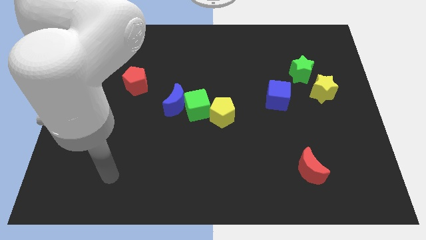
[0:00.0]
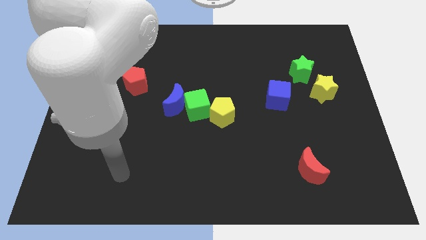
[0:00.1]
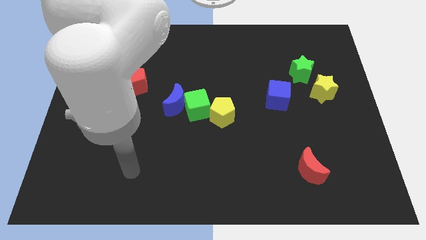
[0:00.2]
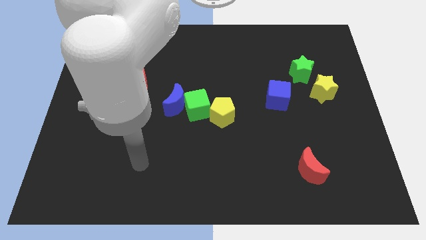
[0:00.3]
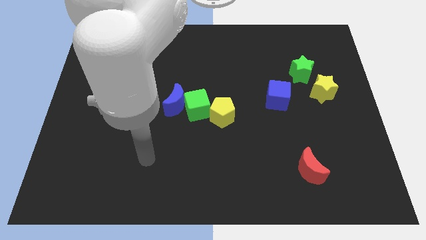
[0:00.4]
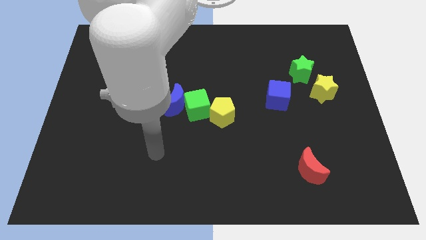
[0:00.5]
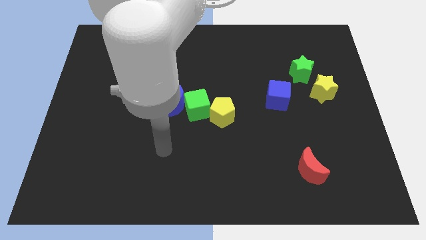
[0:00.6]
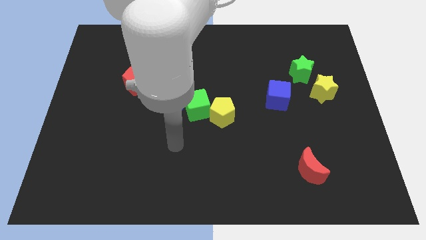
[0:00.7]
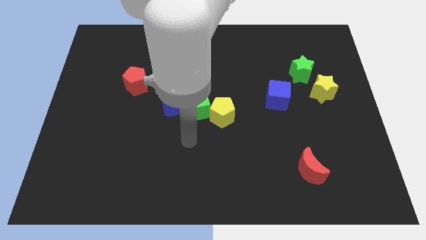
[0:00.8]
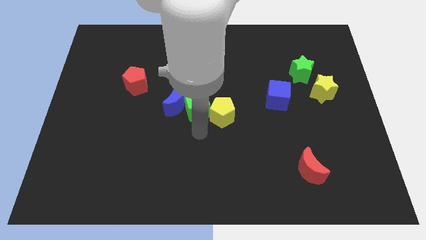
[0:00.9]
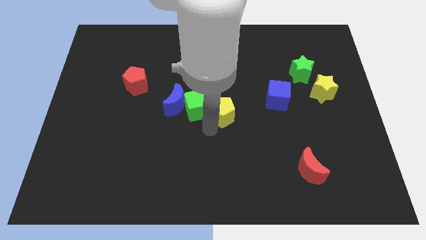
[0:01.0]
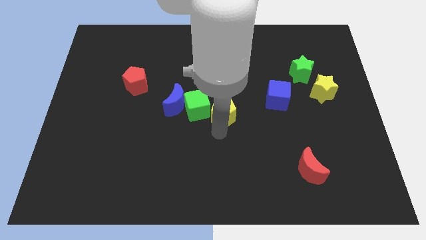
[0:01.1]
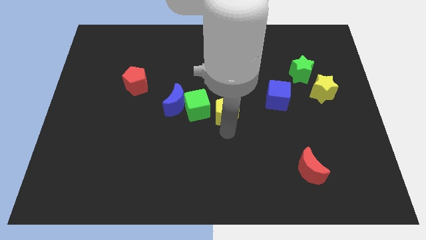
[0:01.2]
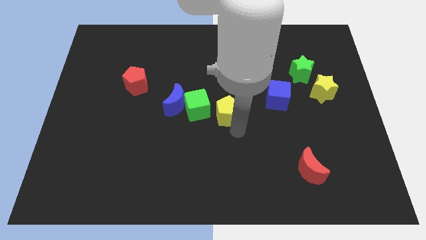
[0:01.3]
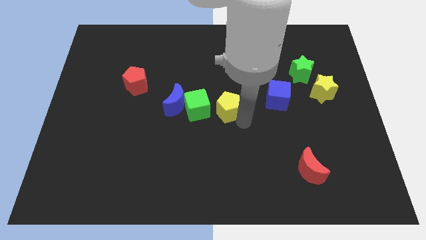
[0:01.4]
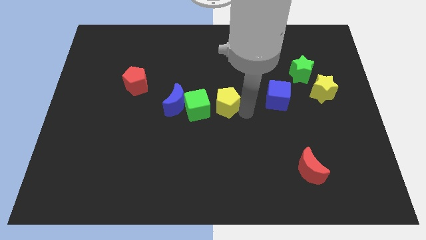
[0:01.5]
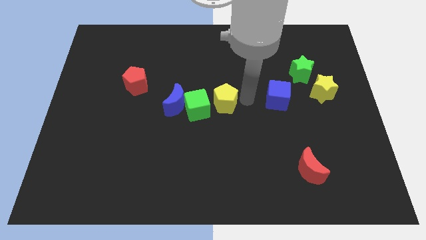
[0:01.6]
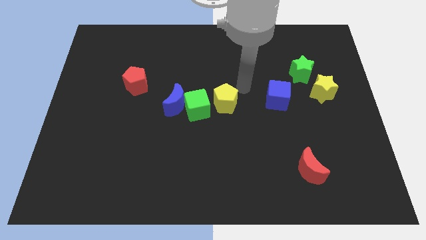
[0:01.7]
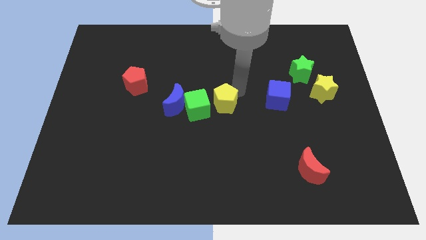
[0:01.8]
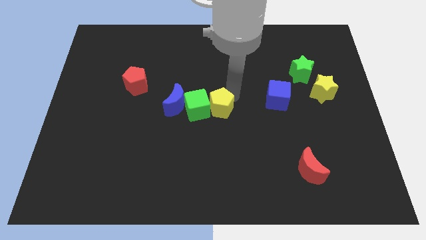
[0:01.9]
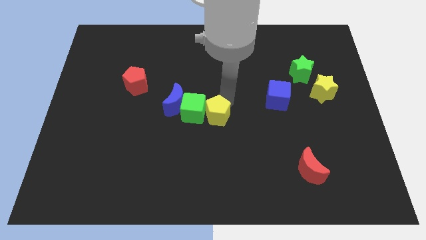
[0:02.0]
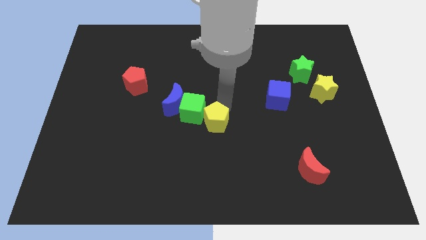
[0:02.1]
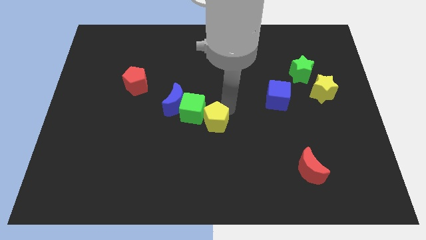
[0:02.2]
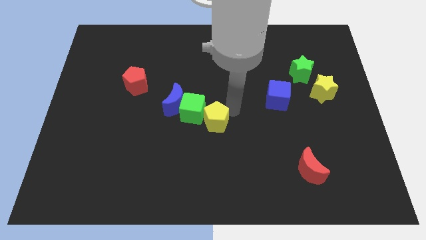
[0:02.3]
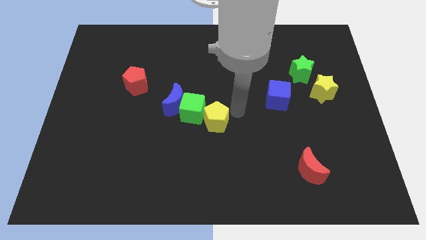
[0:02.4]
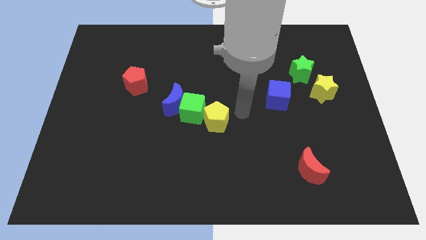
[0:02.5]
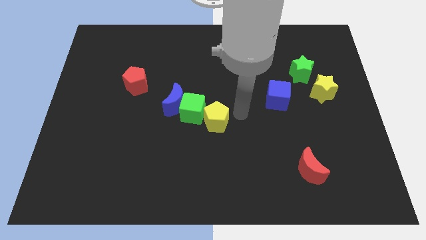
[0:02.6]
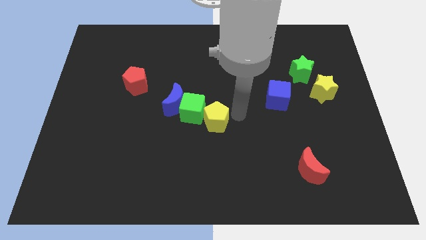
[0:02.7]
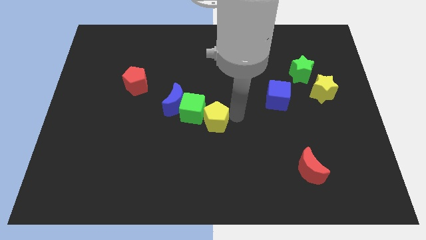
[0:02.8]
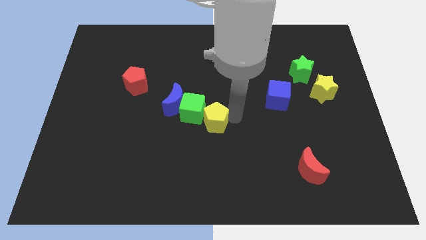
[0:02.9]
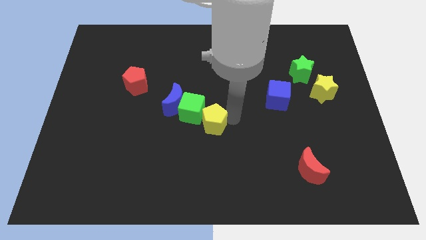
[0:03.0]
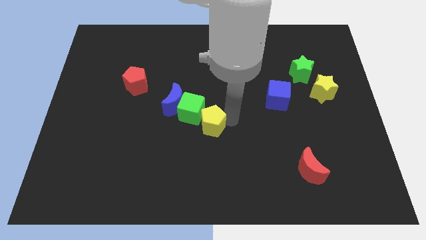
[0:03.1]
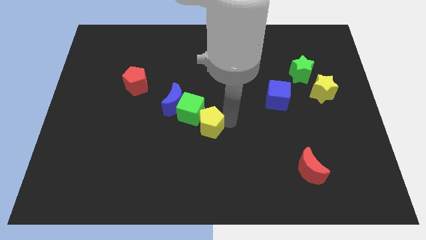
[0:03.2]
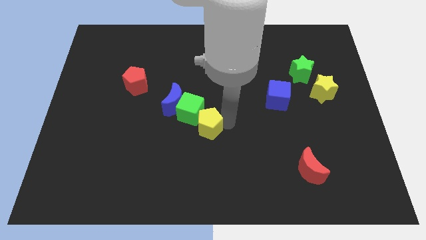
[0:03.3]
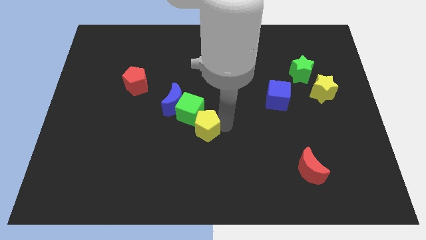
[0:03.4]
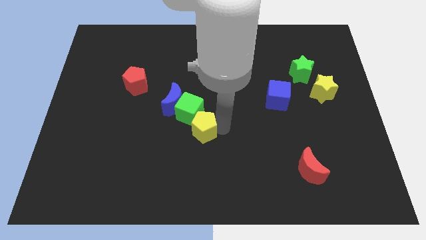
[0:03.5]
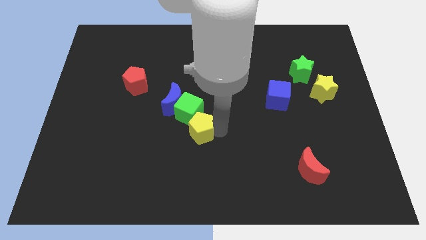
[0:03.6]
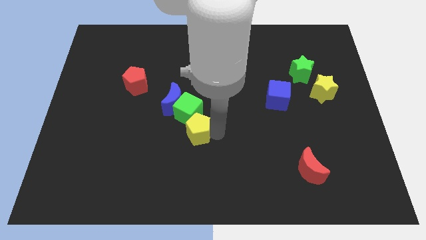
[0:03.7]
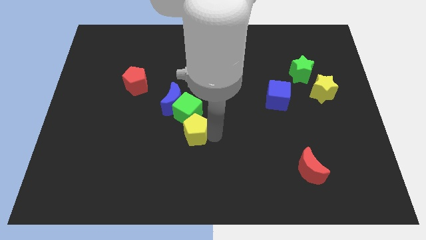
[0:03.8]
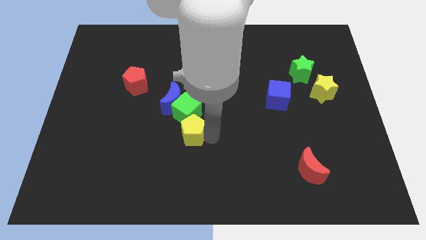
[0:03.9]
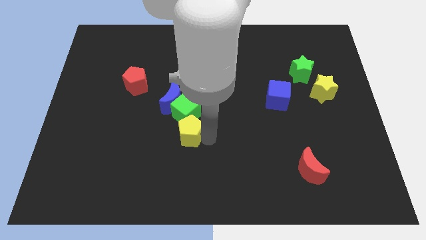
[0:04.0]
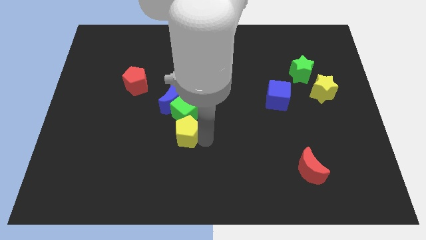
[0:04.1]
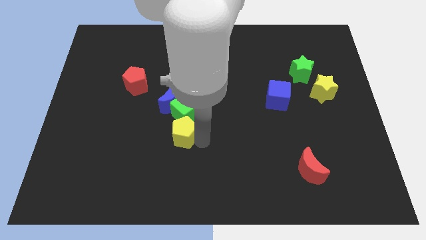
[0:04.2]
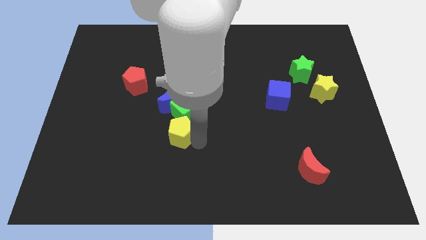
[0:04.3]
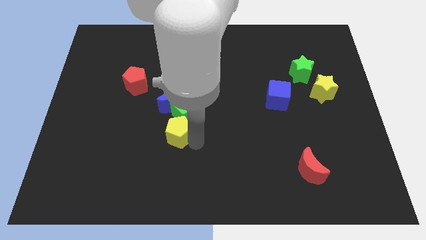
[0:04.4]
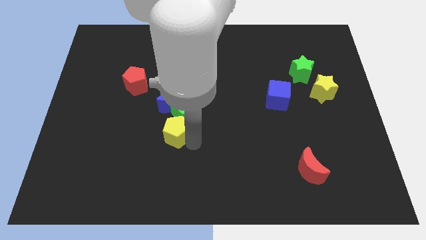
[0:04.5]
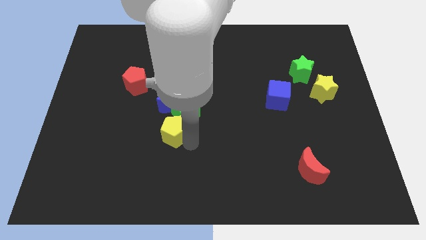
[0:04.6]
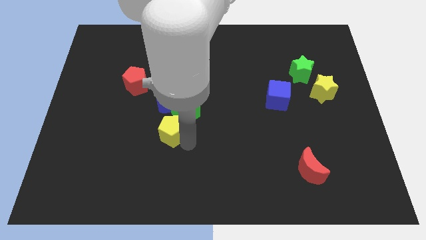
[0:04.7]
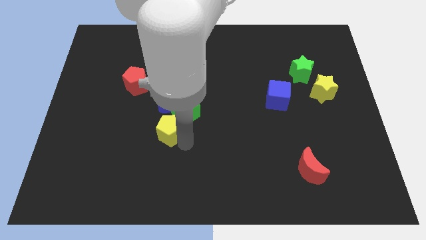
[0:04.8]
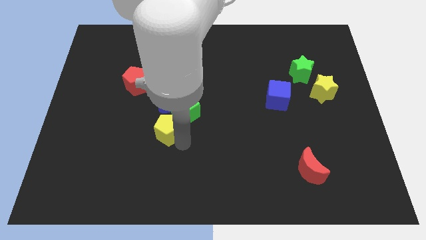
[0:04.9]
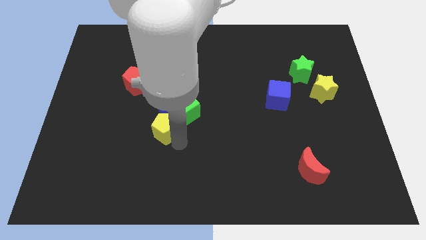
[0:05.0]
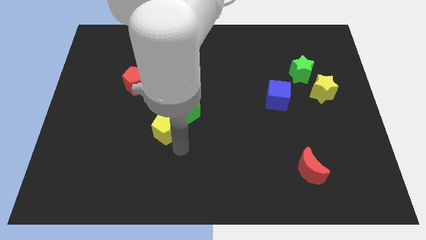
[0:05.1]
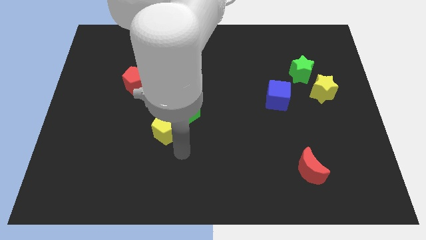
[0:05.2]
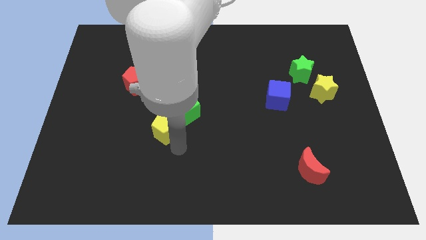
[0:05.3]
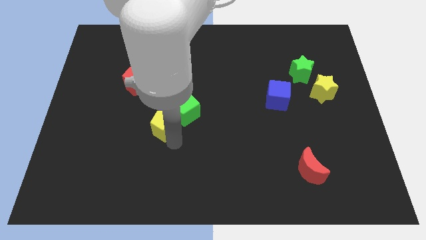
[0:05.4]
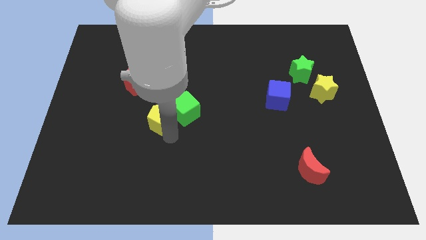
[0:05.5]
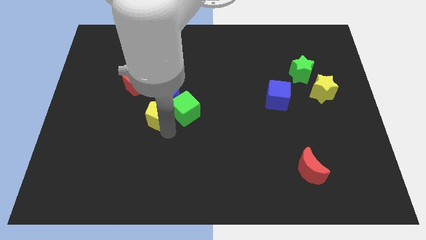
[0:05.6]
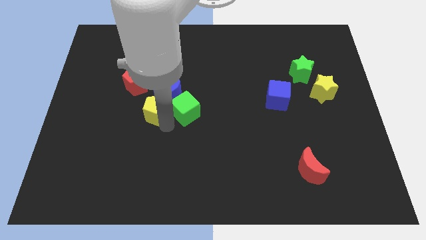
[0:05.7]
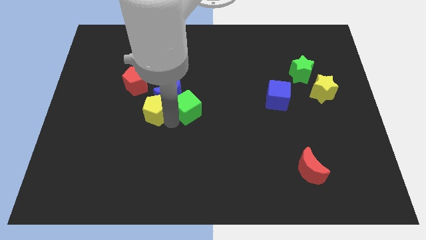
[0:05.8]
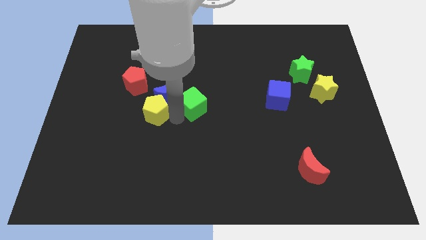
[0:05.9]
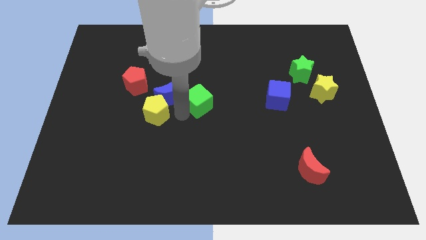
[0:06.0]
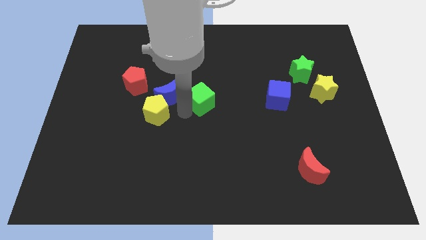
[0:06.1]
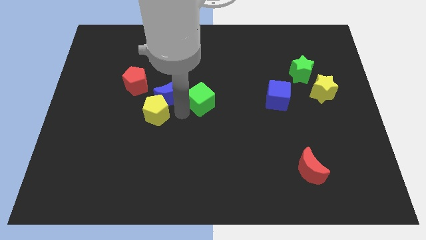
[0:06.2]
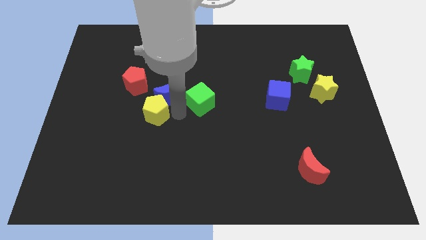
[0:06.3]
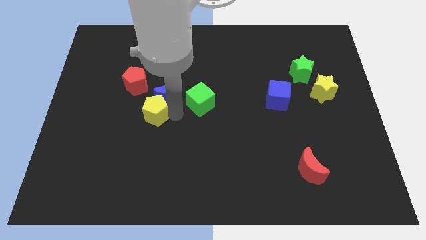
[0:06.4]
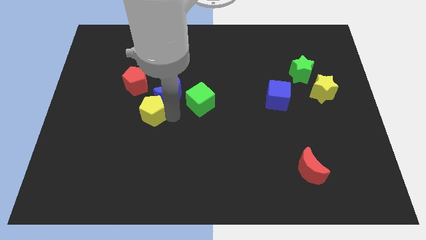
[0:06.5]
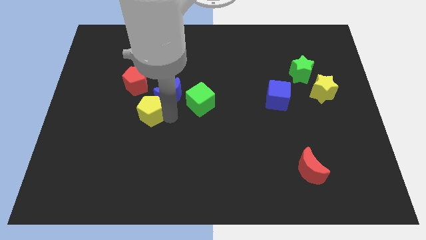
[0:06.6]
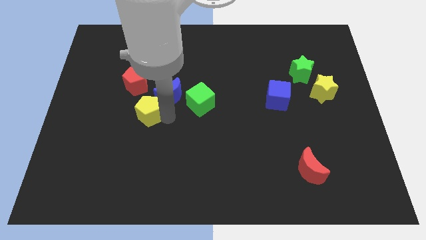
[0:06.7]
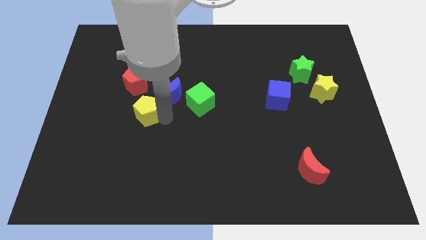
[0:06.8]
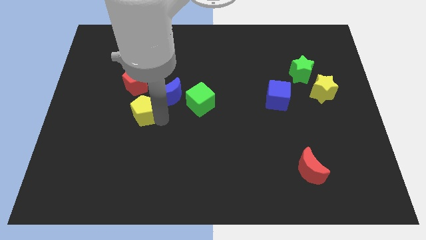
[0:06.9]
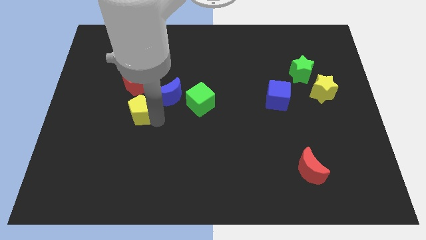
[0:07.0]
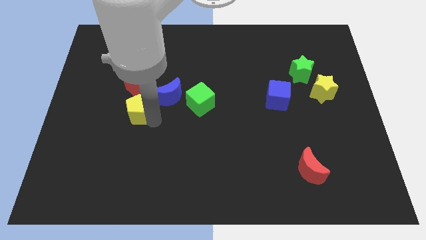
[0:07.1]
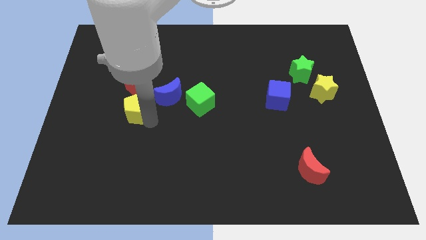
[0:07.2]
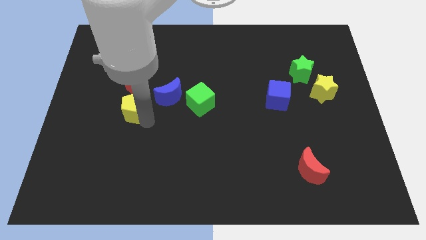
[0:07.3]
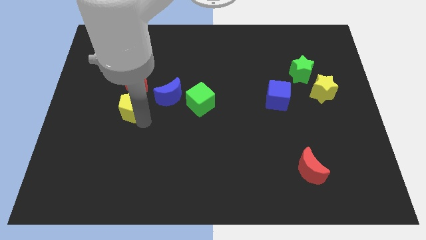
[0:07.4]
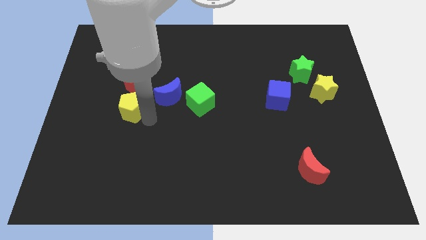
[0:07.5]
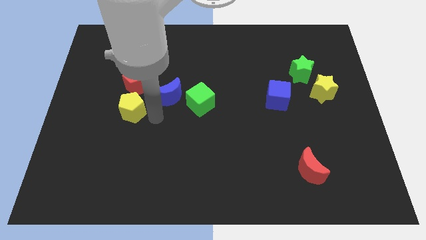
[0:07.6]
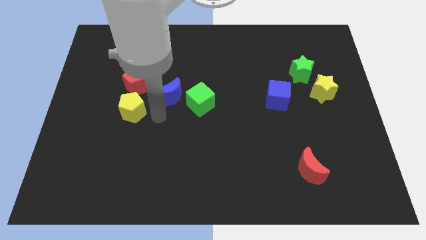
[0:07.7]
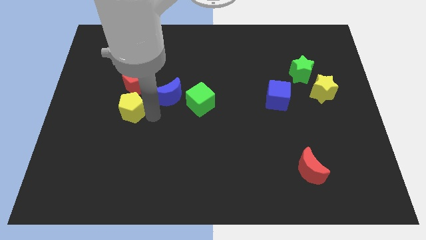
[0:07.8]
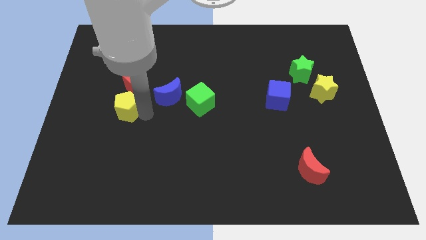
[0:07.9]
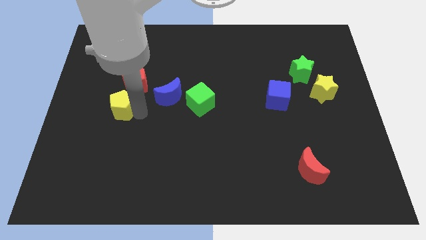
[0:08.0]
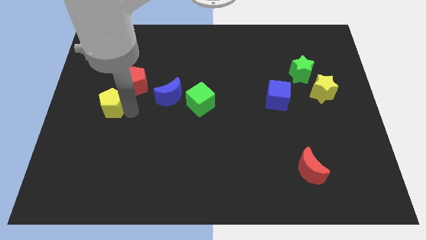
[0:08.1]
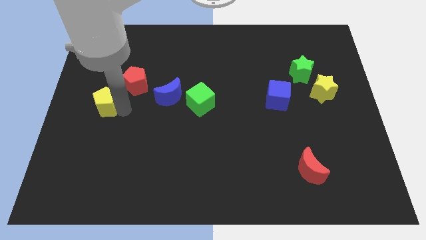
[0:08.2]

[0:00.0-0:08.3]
push the yellow pentagon to the center left
